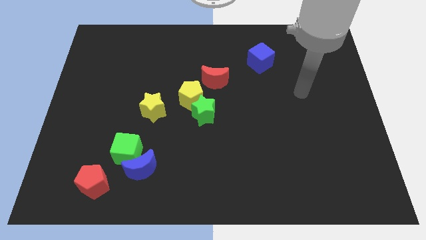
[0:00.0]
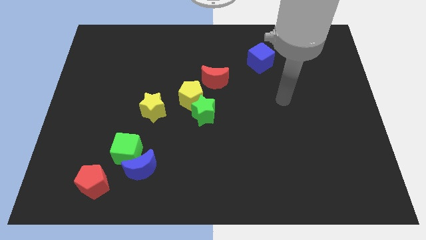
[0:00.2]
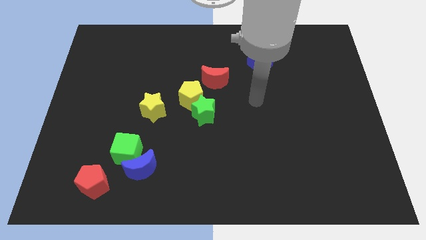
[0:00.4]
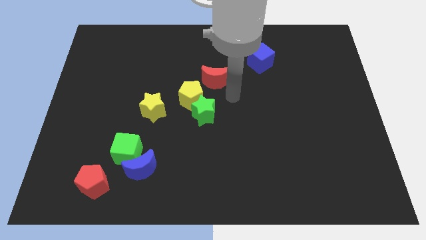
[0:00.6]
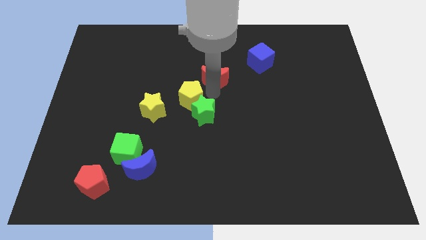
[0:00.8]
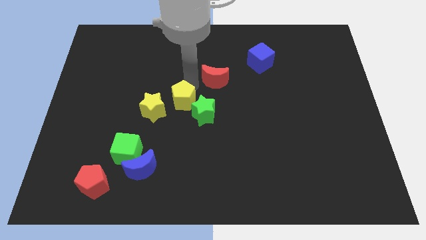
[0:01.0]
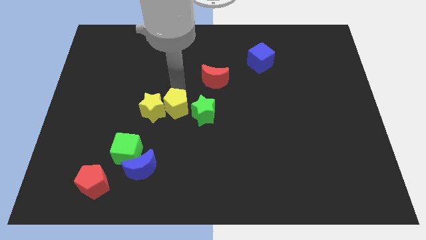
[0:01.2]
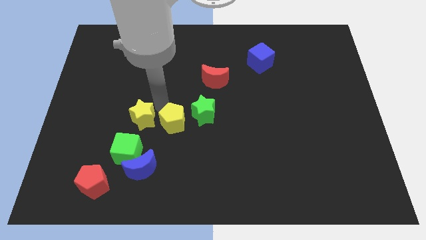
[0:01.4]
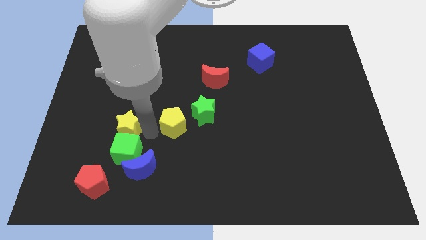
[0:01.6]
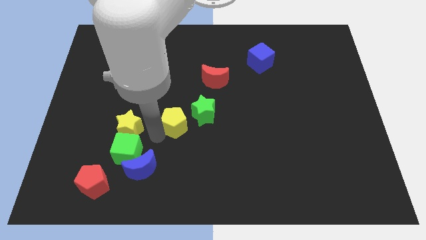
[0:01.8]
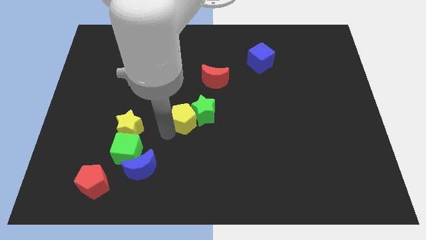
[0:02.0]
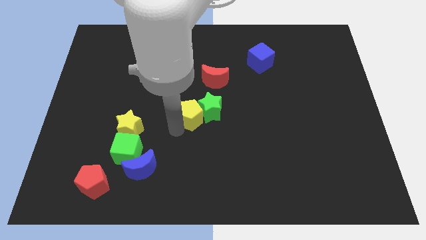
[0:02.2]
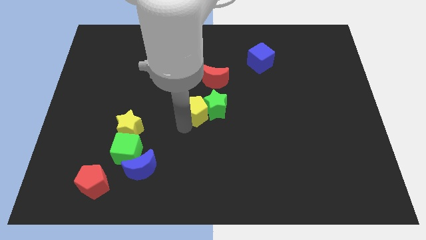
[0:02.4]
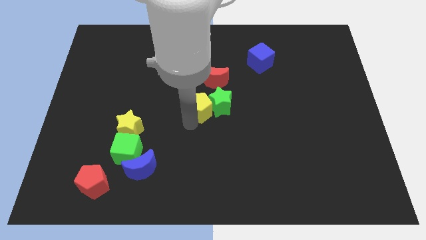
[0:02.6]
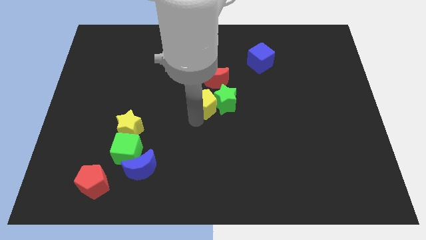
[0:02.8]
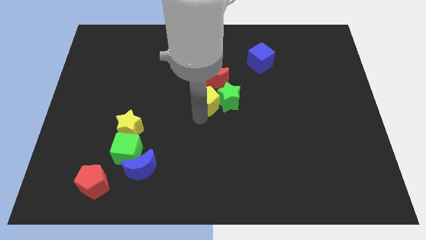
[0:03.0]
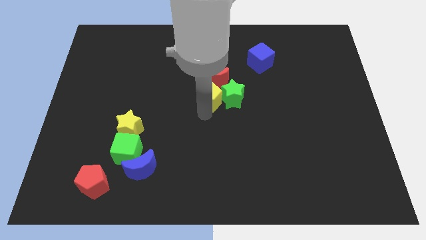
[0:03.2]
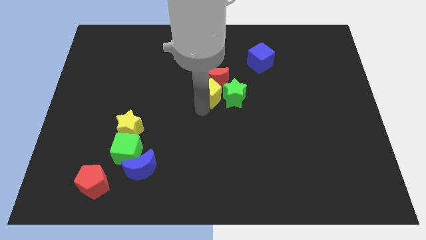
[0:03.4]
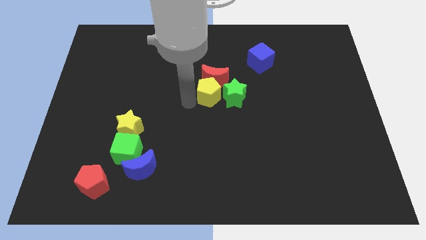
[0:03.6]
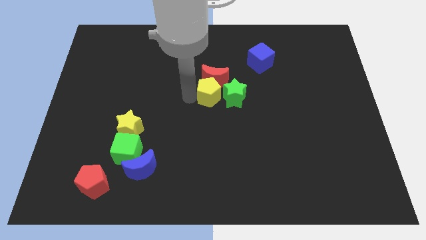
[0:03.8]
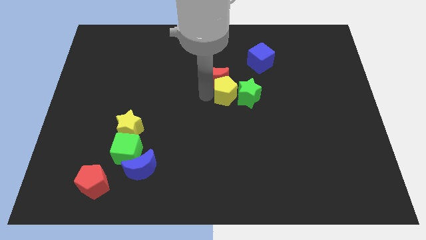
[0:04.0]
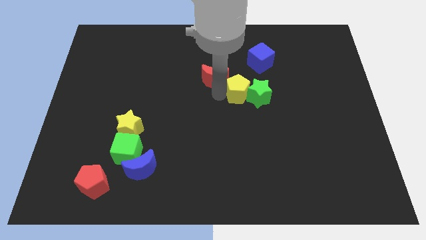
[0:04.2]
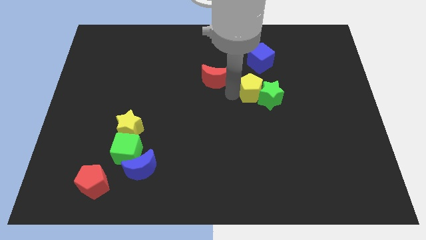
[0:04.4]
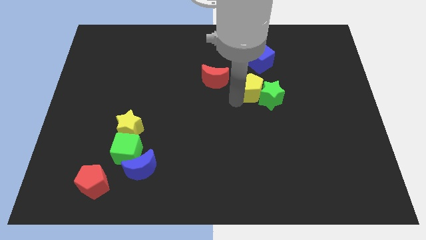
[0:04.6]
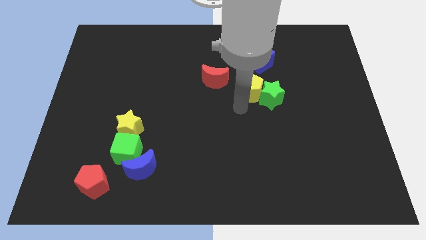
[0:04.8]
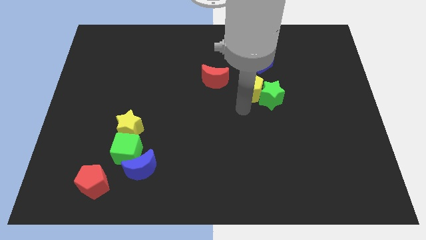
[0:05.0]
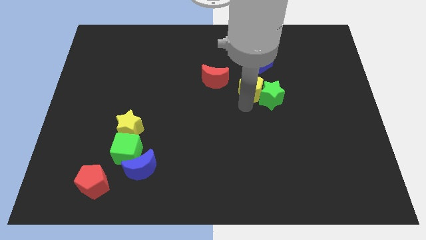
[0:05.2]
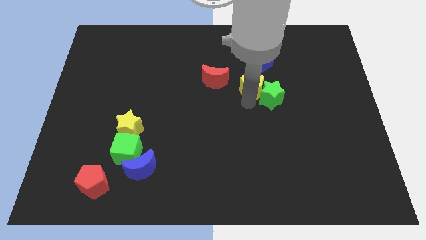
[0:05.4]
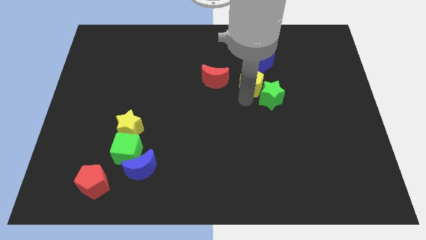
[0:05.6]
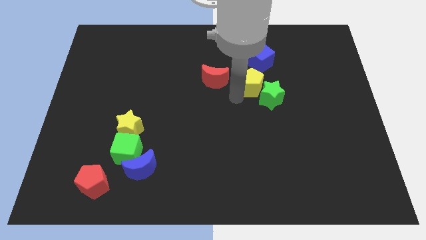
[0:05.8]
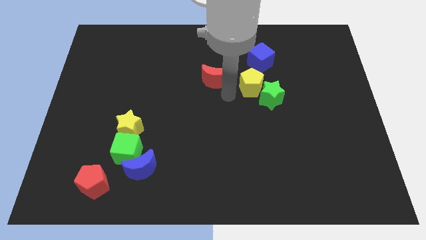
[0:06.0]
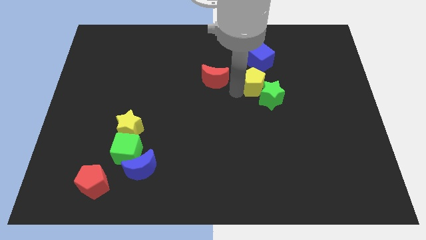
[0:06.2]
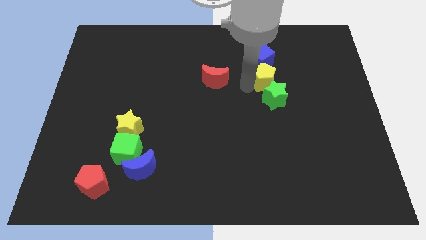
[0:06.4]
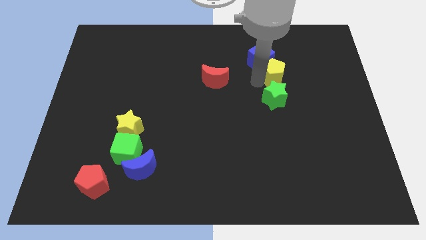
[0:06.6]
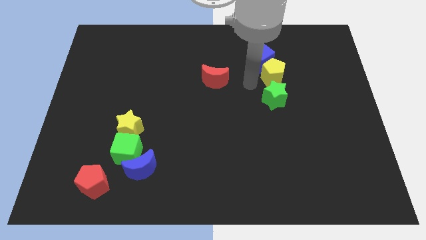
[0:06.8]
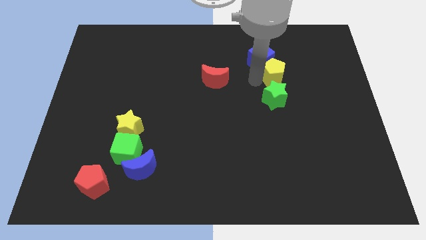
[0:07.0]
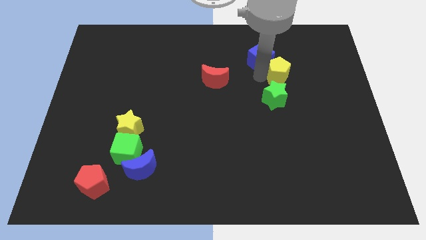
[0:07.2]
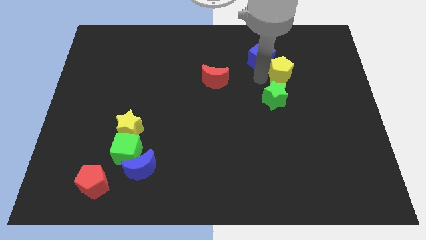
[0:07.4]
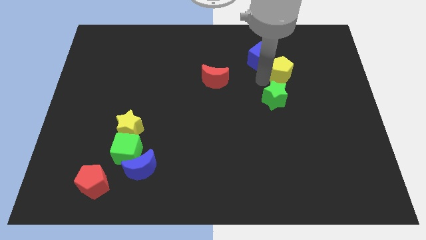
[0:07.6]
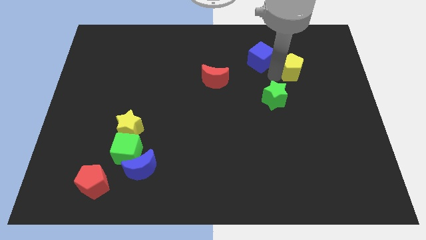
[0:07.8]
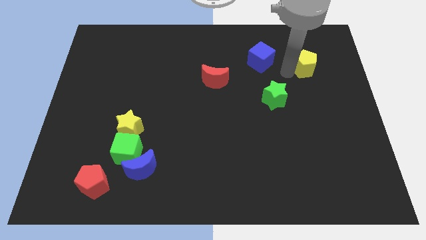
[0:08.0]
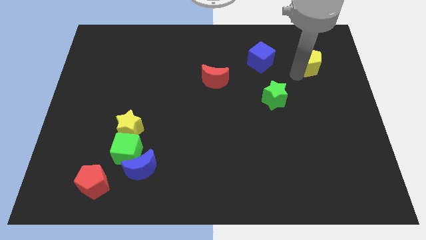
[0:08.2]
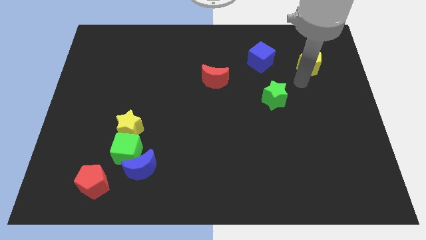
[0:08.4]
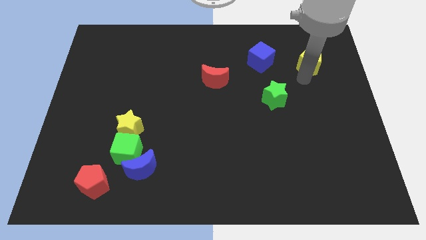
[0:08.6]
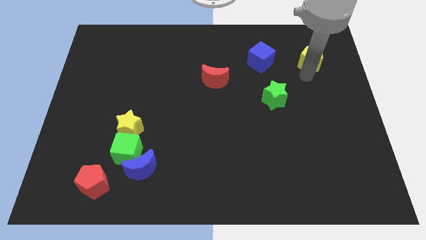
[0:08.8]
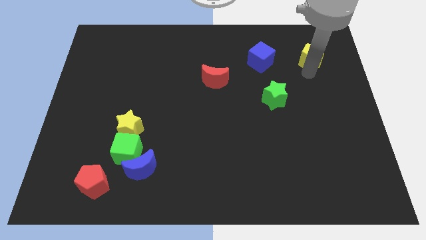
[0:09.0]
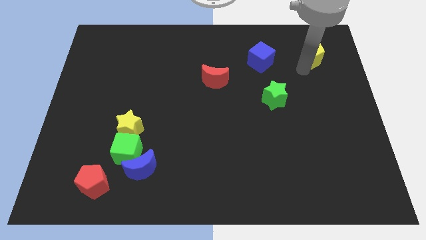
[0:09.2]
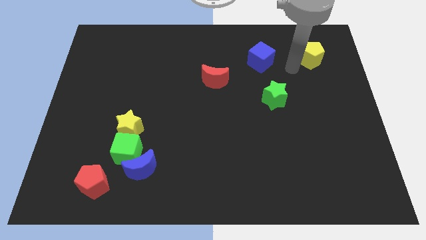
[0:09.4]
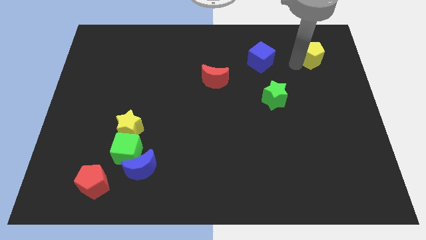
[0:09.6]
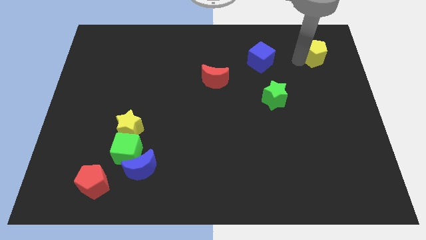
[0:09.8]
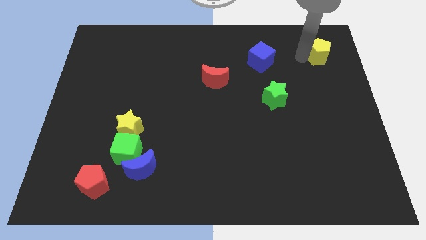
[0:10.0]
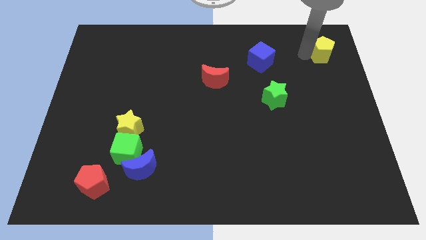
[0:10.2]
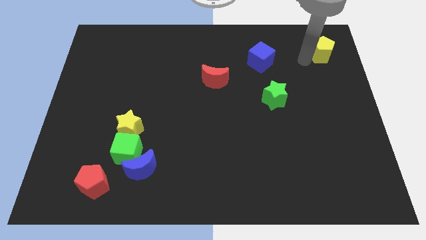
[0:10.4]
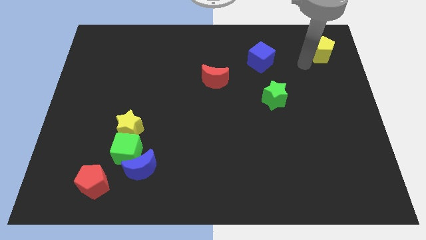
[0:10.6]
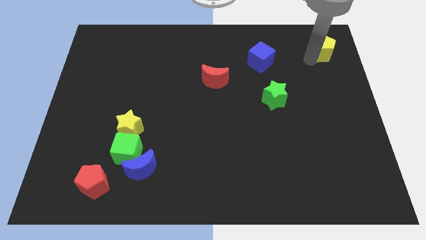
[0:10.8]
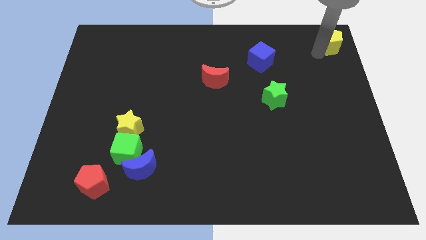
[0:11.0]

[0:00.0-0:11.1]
push the yellow pentagon to the top right

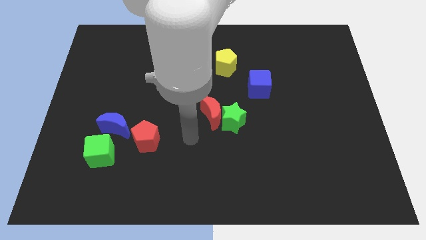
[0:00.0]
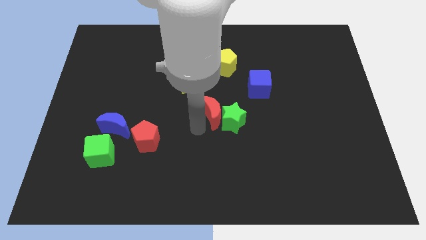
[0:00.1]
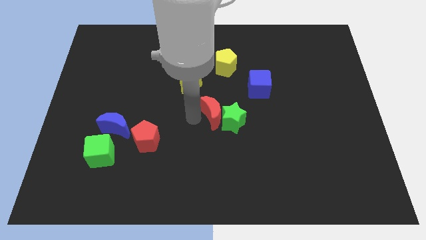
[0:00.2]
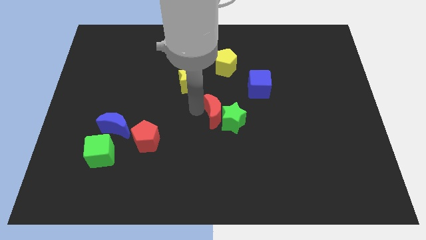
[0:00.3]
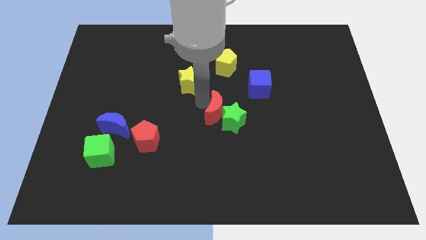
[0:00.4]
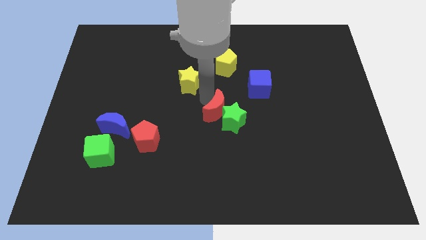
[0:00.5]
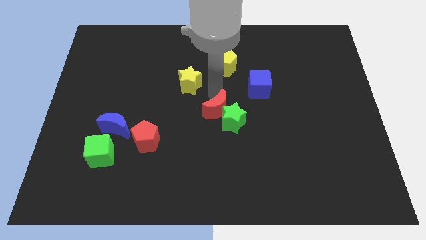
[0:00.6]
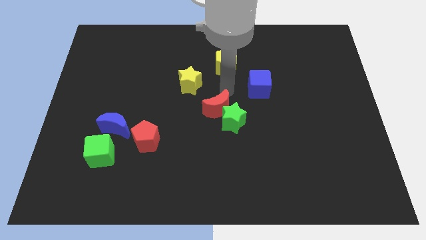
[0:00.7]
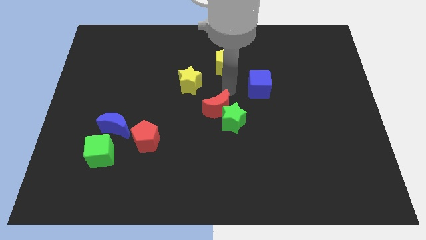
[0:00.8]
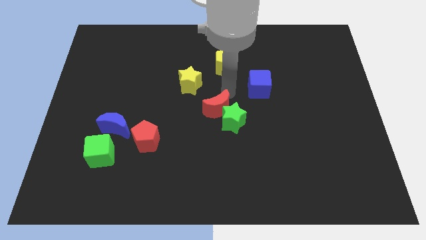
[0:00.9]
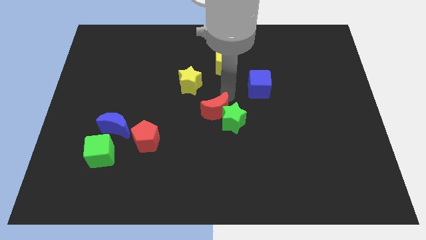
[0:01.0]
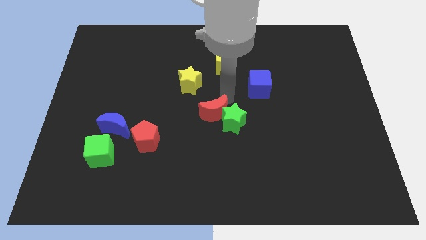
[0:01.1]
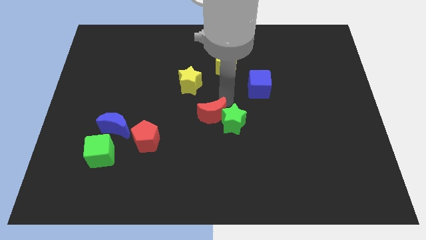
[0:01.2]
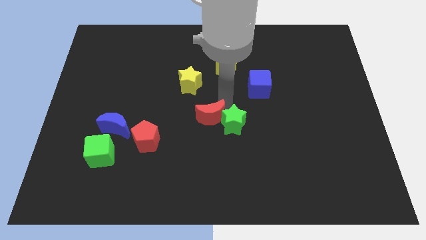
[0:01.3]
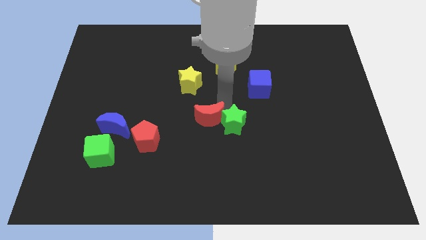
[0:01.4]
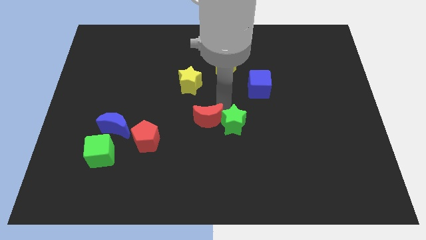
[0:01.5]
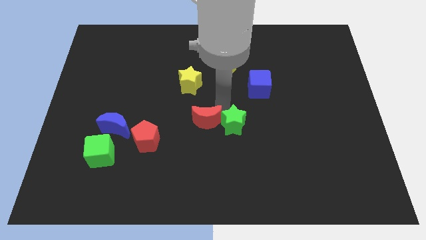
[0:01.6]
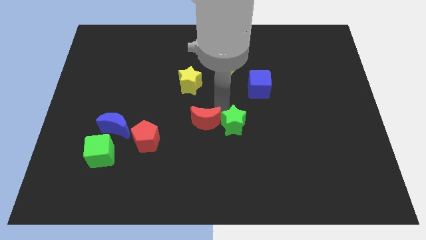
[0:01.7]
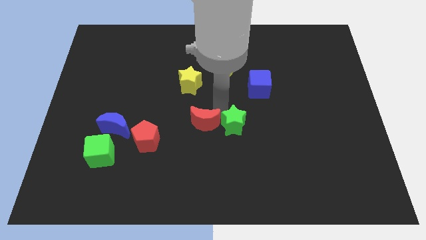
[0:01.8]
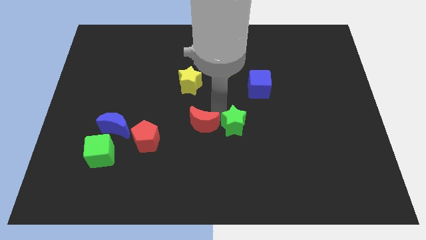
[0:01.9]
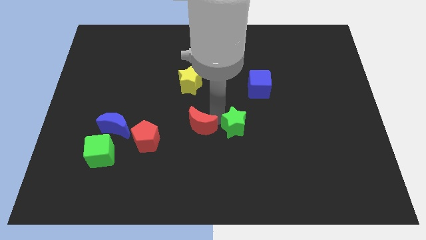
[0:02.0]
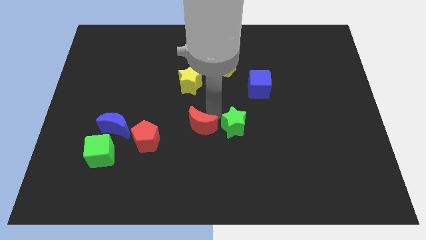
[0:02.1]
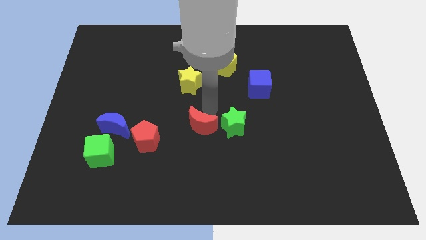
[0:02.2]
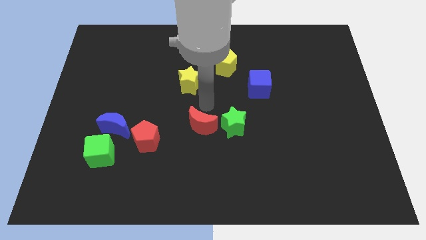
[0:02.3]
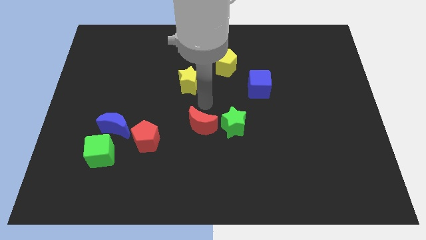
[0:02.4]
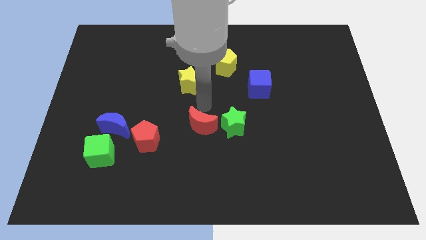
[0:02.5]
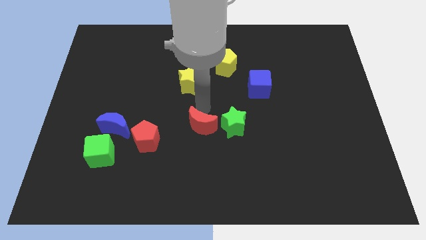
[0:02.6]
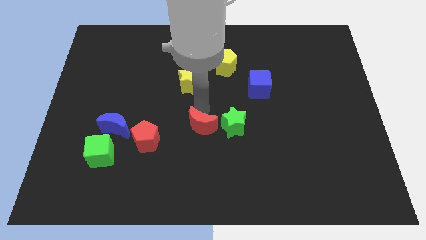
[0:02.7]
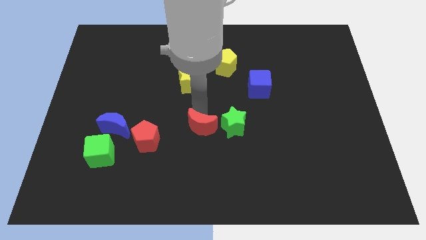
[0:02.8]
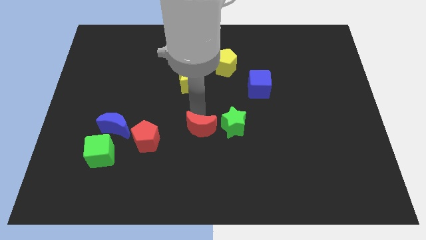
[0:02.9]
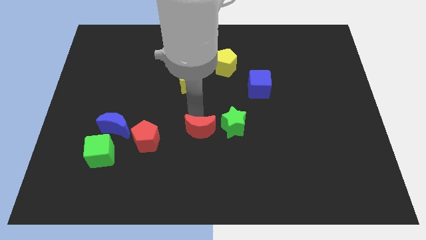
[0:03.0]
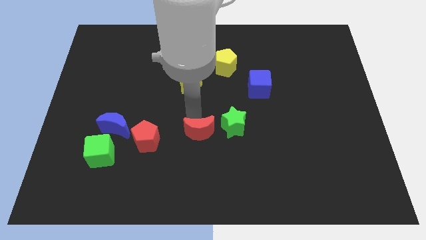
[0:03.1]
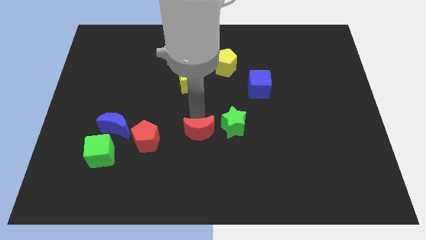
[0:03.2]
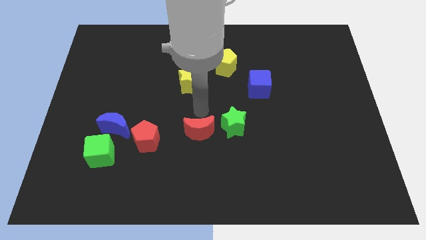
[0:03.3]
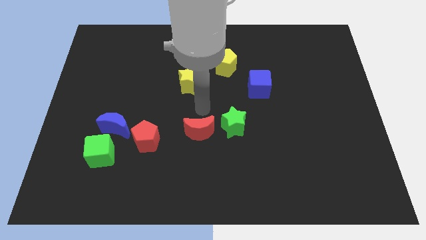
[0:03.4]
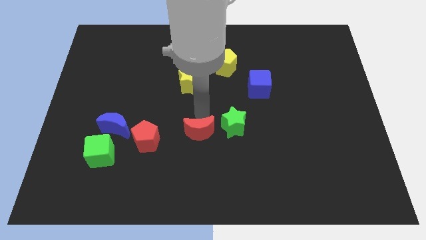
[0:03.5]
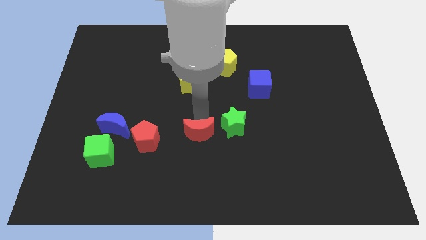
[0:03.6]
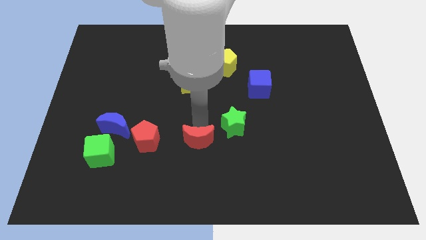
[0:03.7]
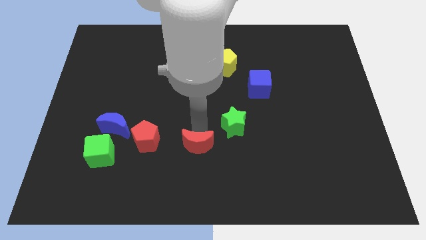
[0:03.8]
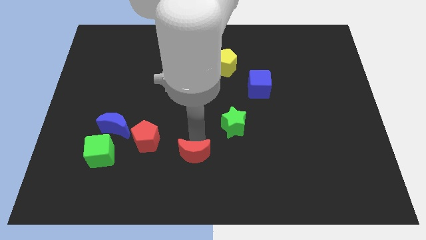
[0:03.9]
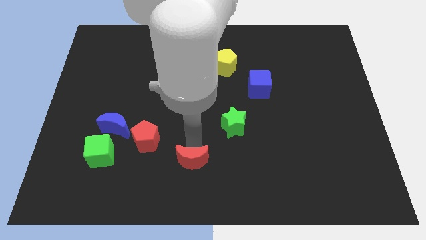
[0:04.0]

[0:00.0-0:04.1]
move the red moon to the bottom side
